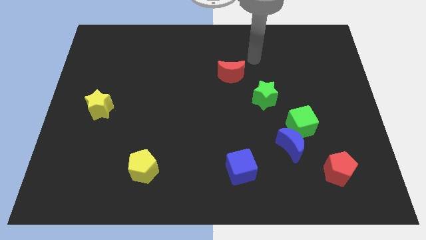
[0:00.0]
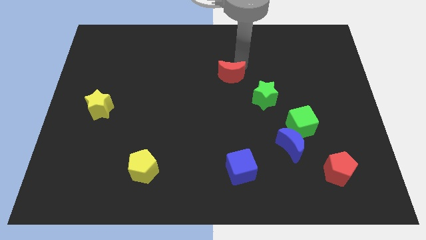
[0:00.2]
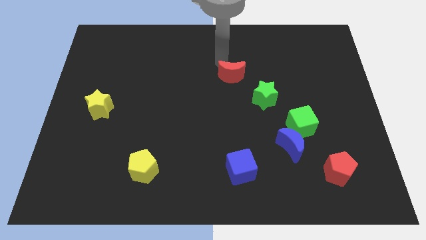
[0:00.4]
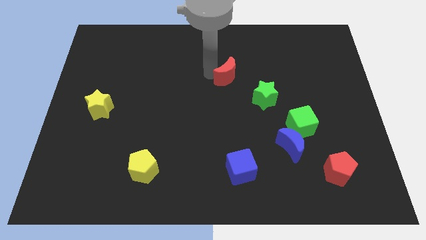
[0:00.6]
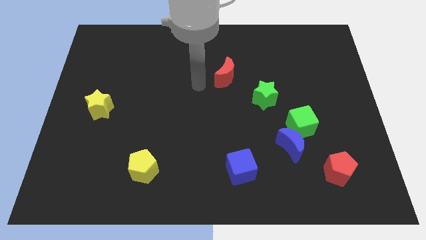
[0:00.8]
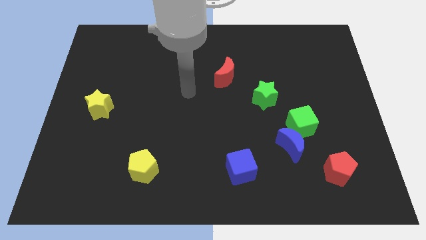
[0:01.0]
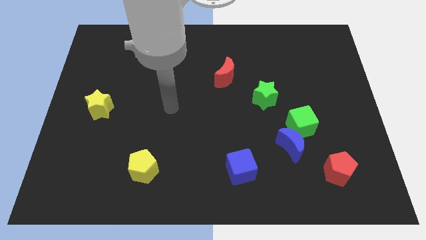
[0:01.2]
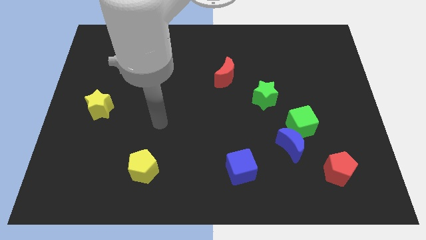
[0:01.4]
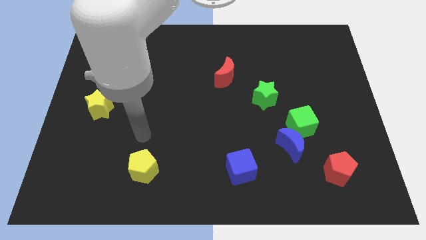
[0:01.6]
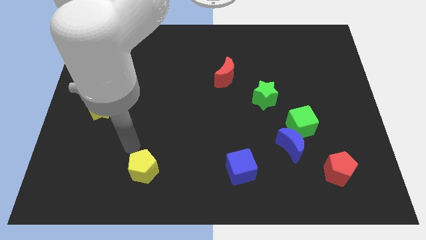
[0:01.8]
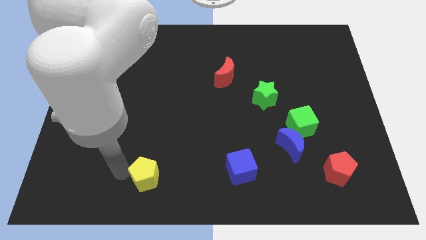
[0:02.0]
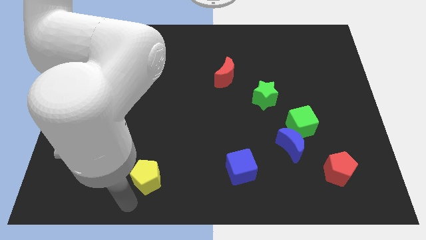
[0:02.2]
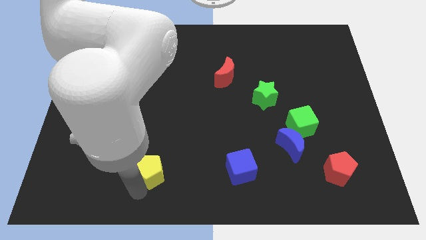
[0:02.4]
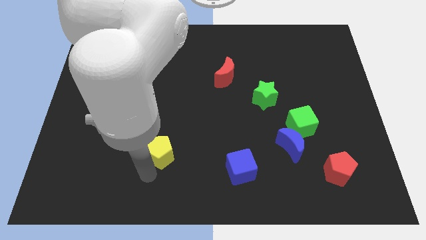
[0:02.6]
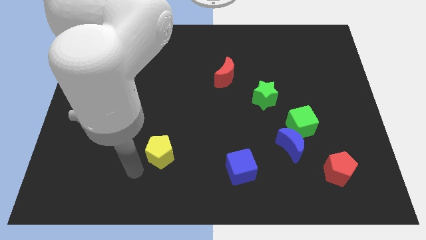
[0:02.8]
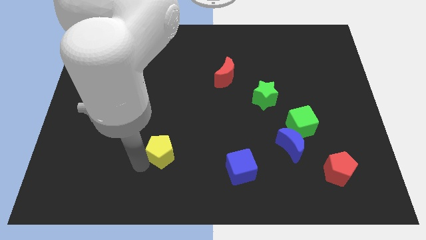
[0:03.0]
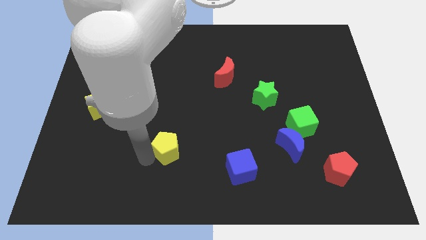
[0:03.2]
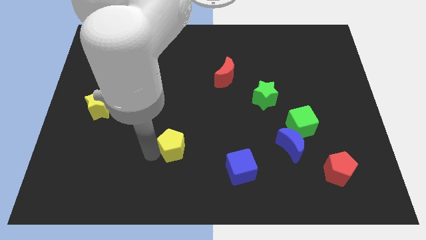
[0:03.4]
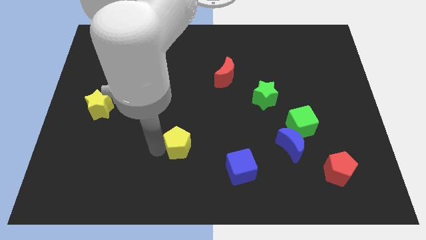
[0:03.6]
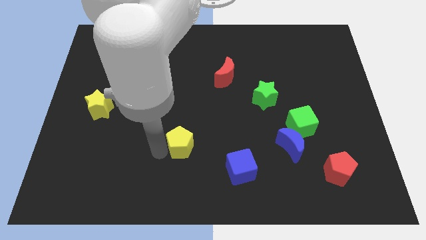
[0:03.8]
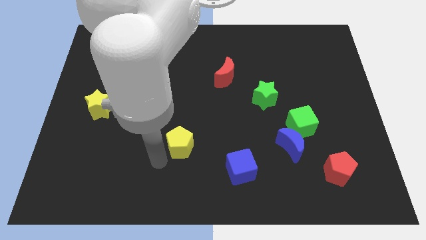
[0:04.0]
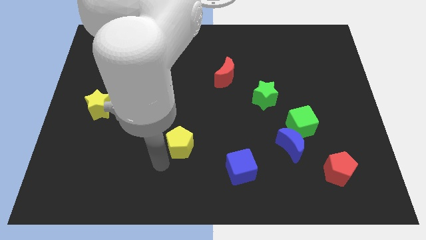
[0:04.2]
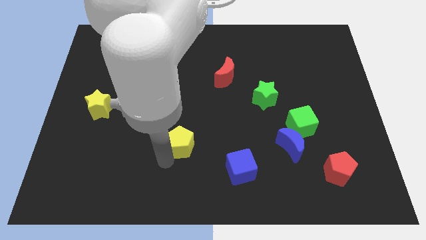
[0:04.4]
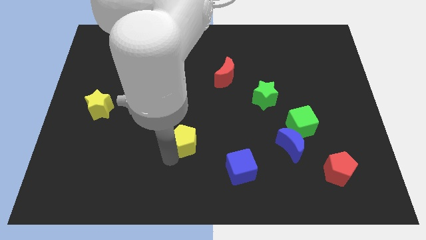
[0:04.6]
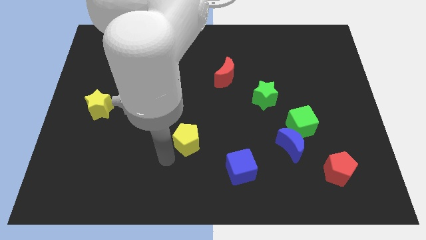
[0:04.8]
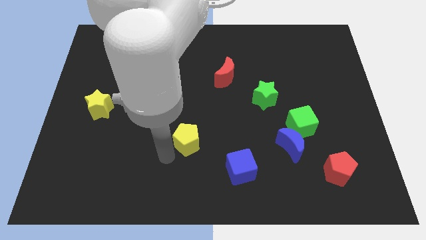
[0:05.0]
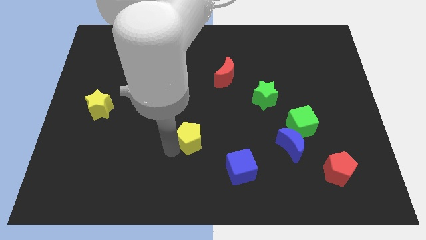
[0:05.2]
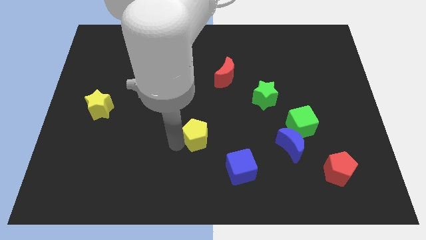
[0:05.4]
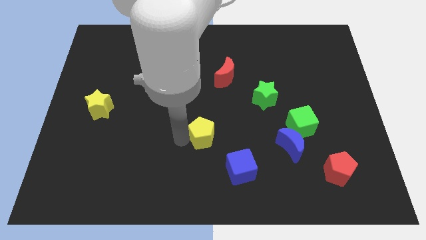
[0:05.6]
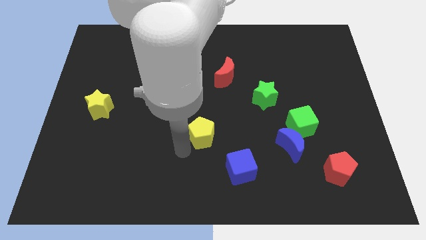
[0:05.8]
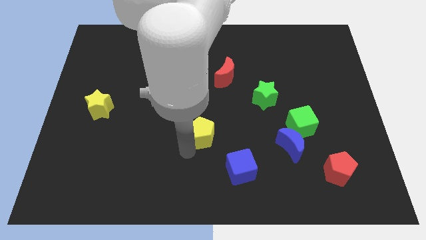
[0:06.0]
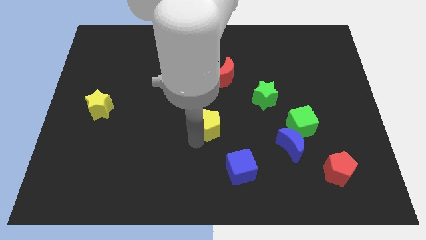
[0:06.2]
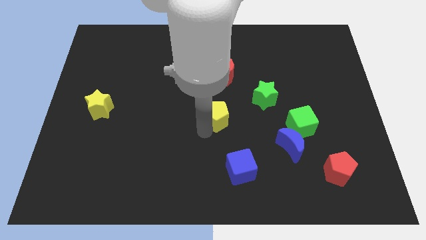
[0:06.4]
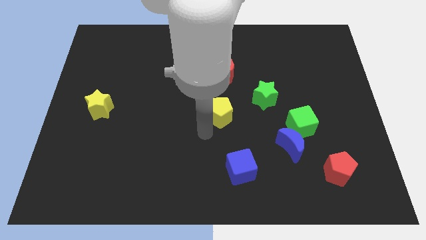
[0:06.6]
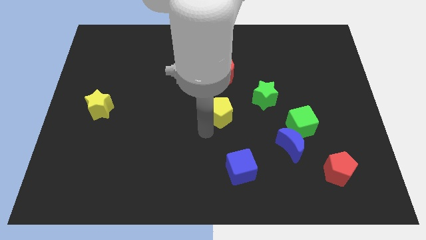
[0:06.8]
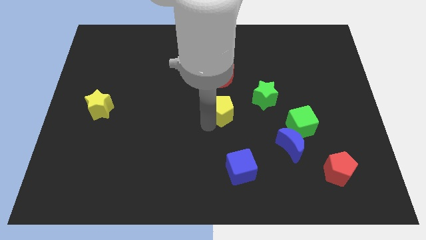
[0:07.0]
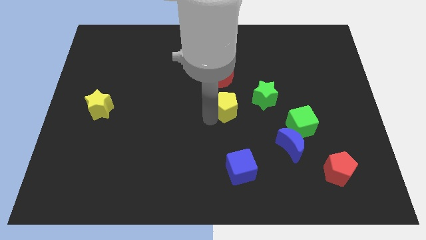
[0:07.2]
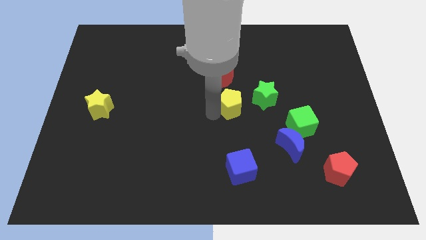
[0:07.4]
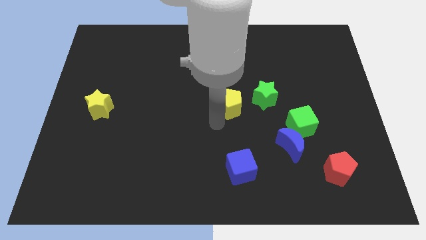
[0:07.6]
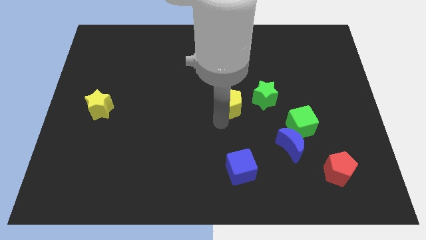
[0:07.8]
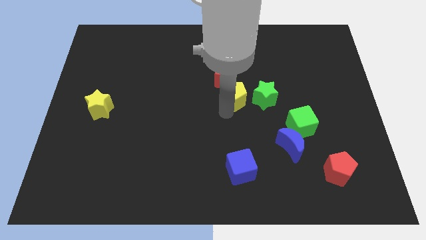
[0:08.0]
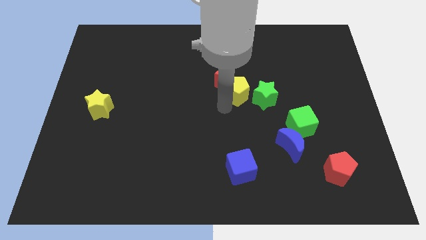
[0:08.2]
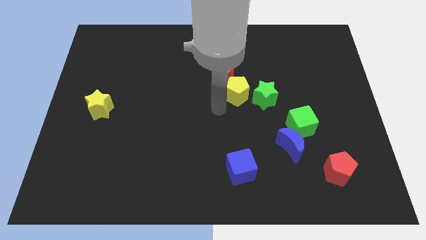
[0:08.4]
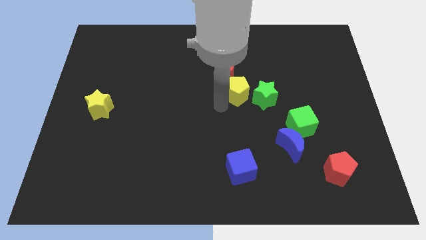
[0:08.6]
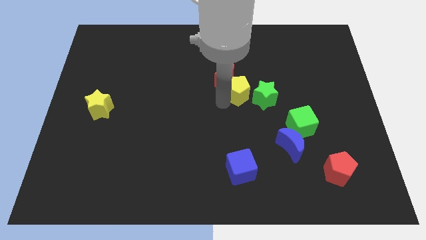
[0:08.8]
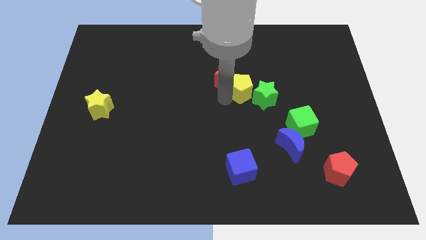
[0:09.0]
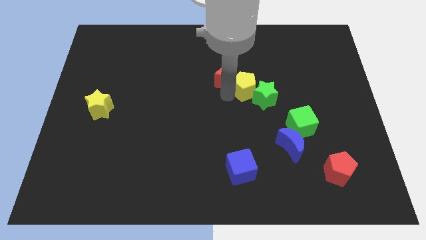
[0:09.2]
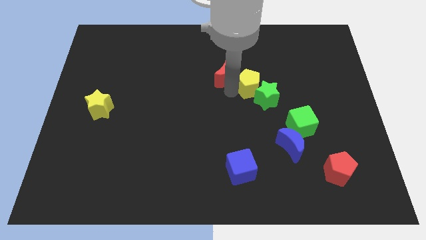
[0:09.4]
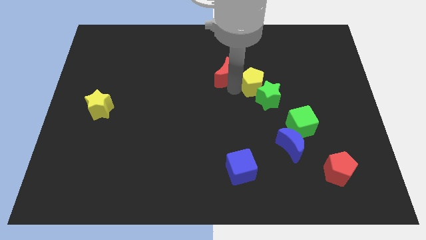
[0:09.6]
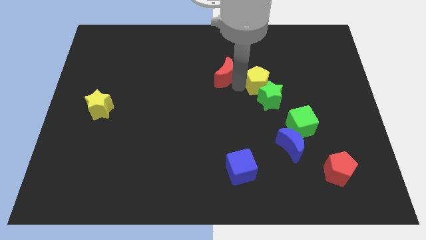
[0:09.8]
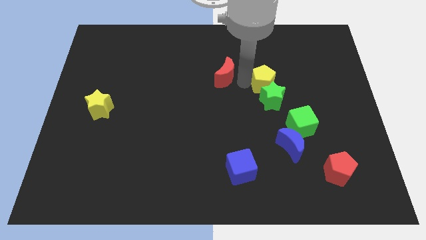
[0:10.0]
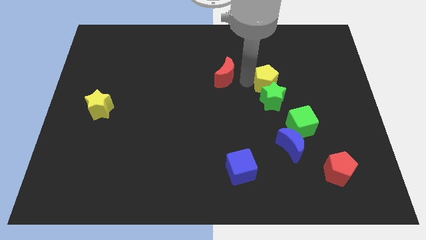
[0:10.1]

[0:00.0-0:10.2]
put the yellow pentagon diagonally up and to the right of the green star
